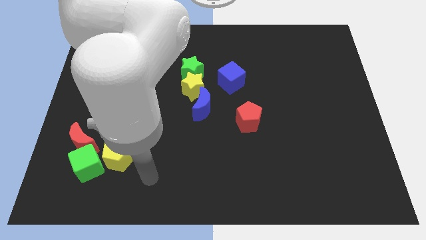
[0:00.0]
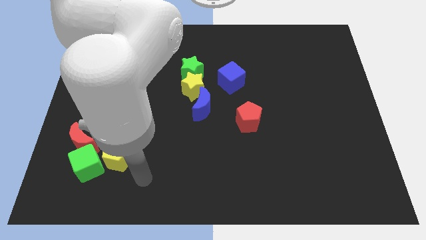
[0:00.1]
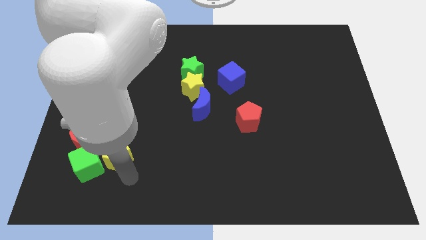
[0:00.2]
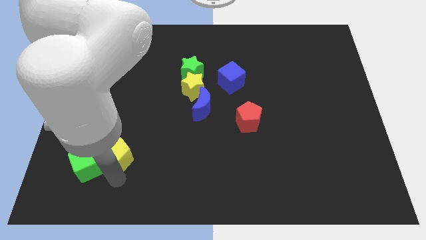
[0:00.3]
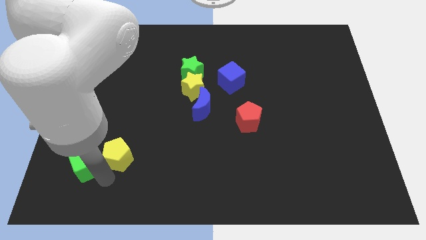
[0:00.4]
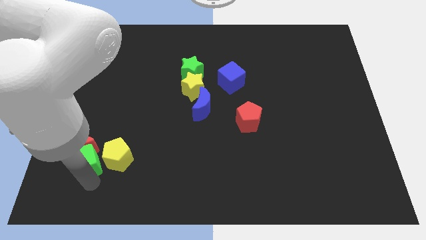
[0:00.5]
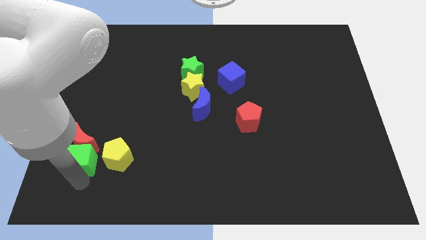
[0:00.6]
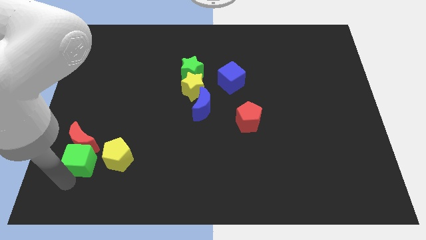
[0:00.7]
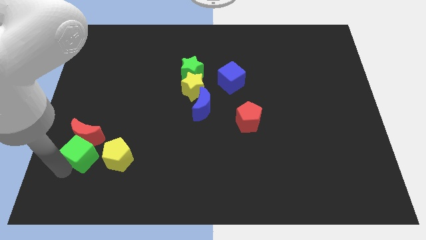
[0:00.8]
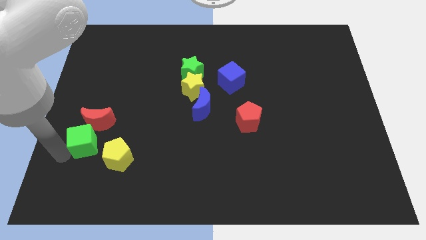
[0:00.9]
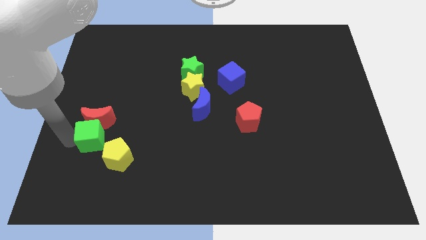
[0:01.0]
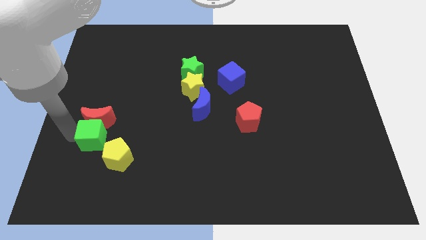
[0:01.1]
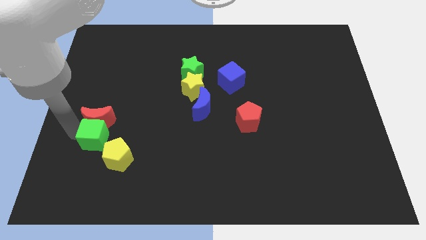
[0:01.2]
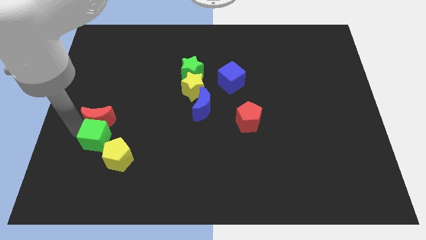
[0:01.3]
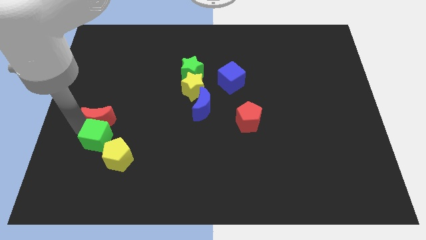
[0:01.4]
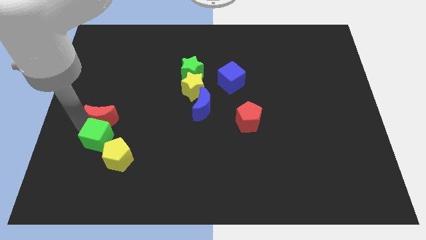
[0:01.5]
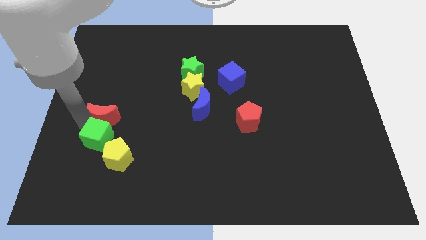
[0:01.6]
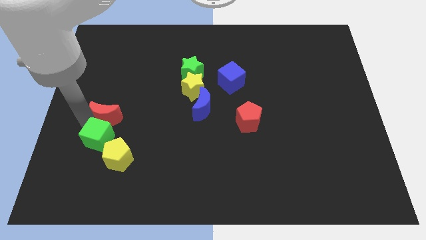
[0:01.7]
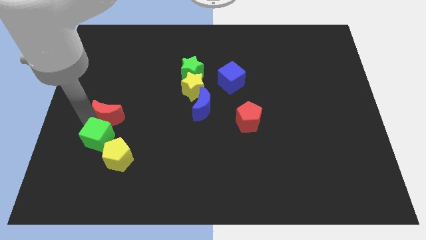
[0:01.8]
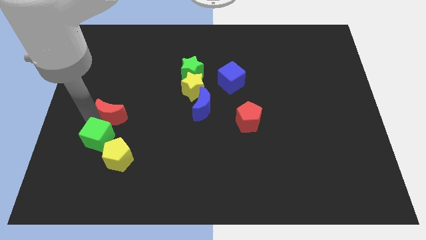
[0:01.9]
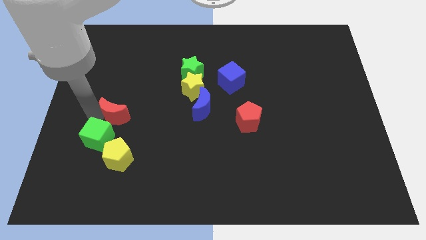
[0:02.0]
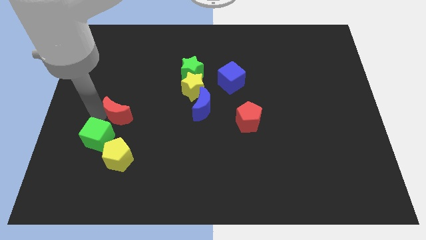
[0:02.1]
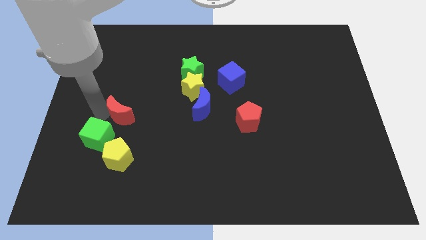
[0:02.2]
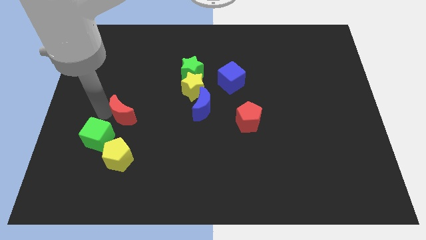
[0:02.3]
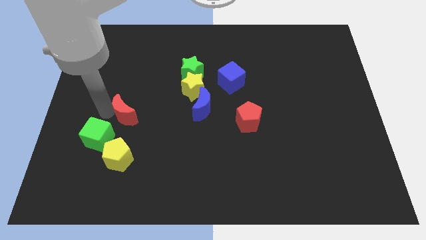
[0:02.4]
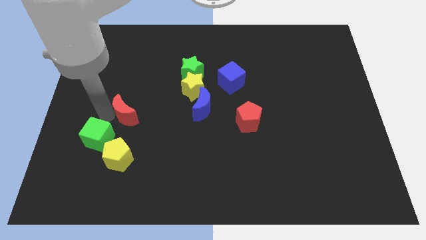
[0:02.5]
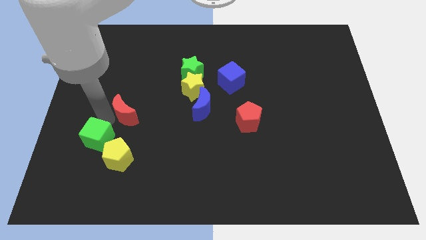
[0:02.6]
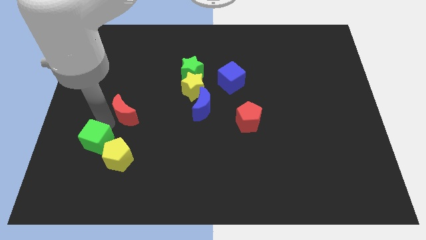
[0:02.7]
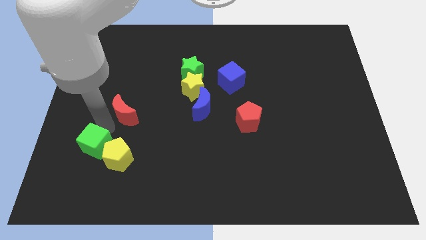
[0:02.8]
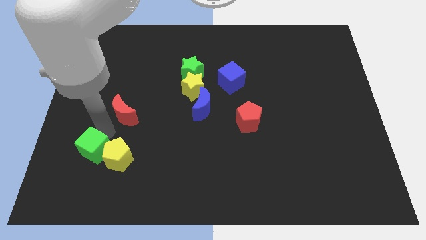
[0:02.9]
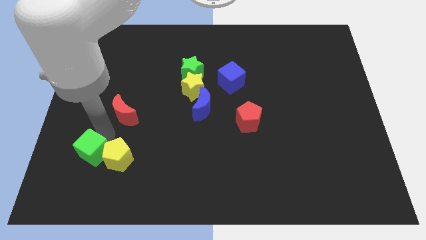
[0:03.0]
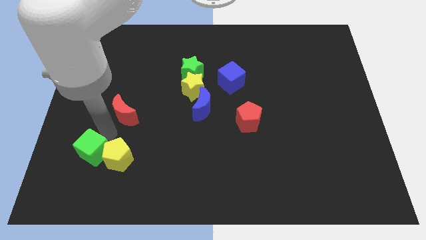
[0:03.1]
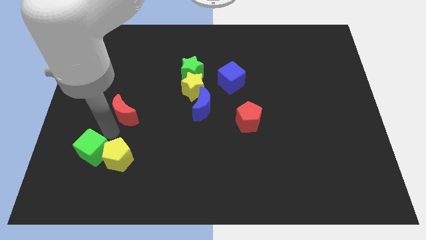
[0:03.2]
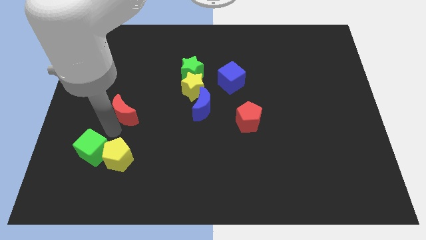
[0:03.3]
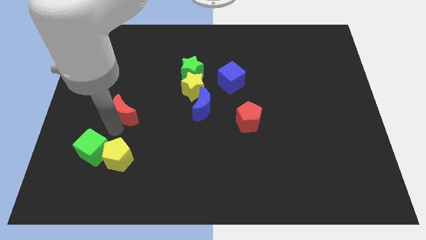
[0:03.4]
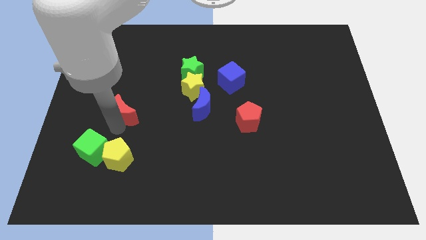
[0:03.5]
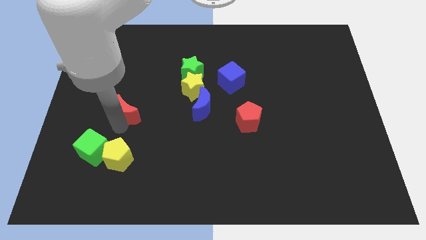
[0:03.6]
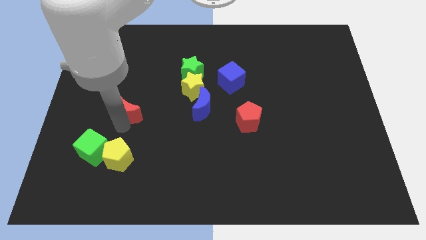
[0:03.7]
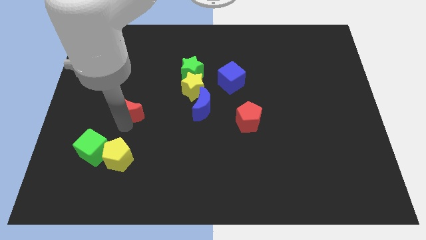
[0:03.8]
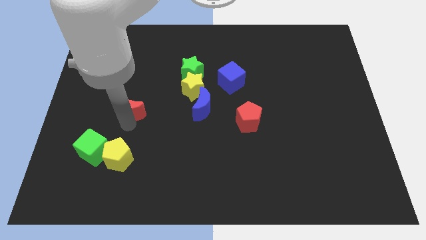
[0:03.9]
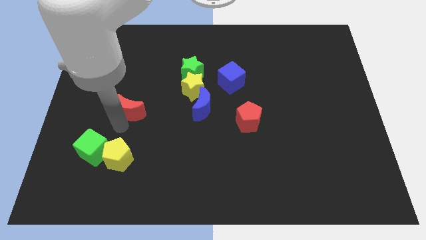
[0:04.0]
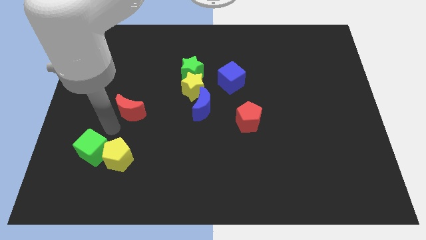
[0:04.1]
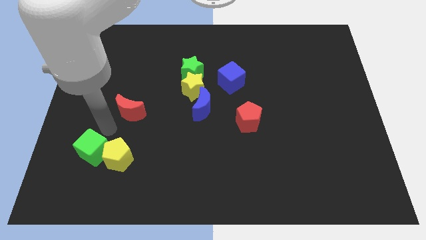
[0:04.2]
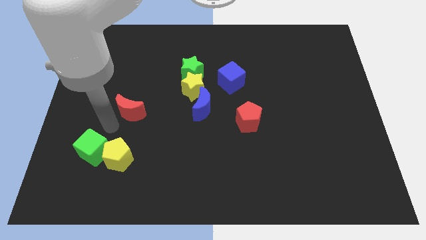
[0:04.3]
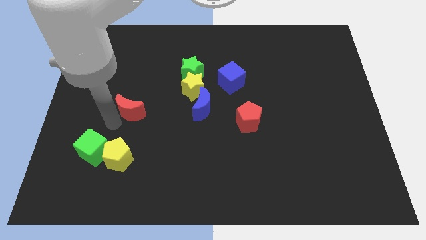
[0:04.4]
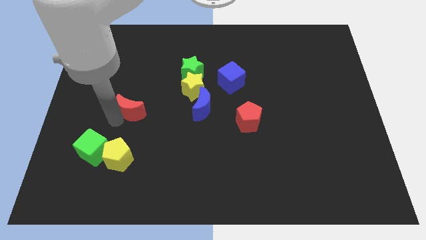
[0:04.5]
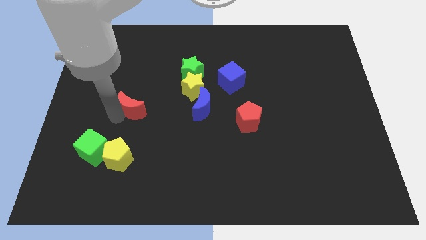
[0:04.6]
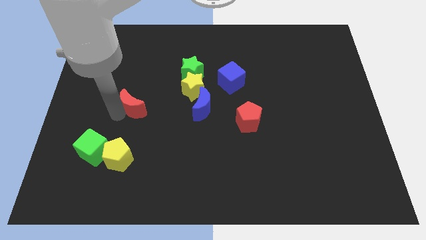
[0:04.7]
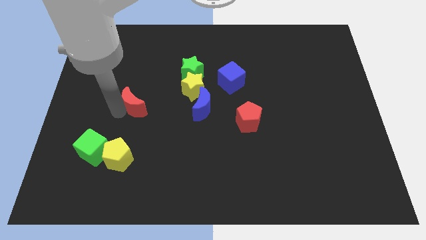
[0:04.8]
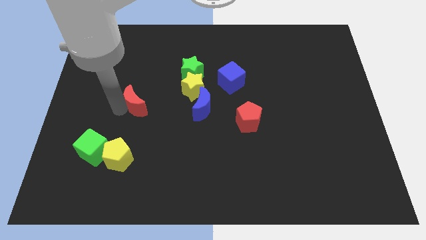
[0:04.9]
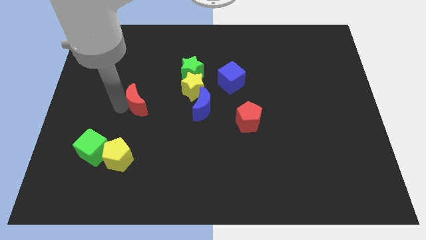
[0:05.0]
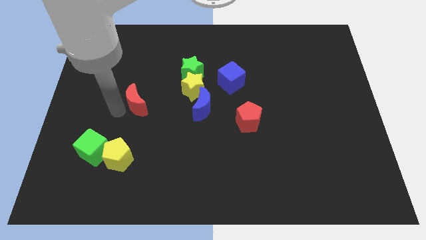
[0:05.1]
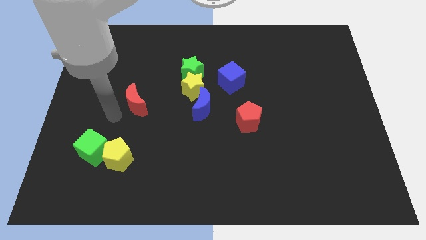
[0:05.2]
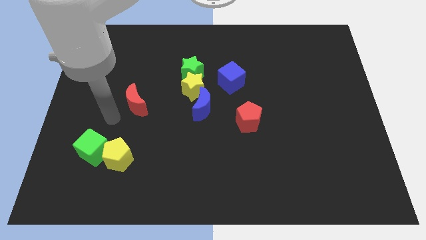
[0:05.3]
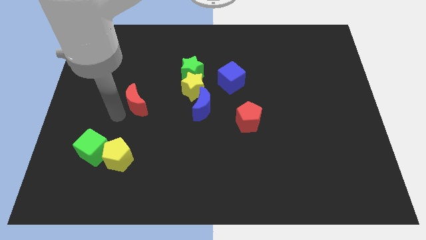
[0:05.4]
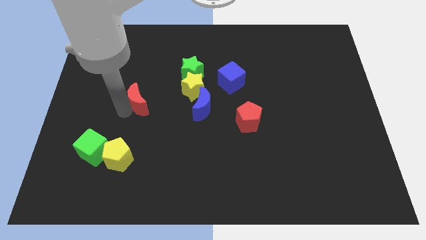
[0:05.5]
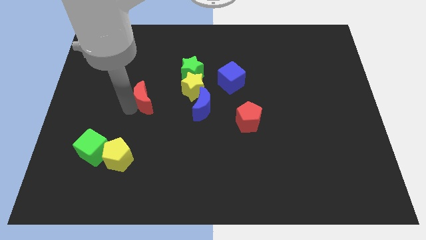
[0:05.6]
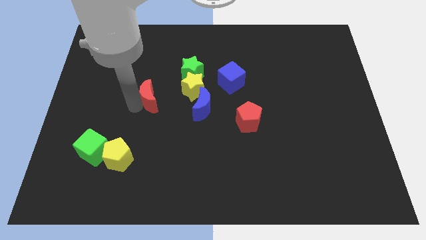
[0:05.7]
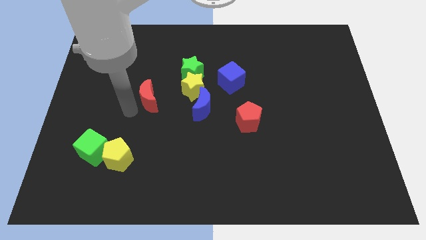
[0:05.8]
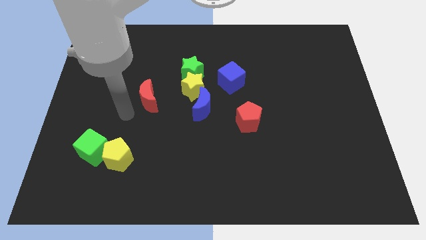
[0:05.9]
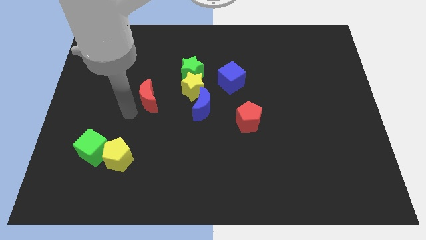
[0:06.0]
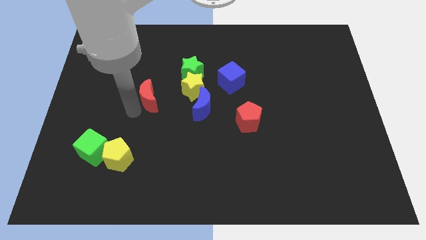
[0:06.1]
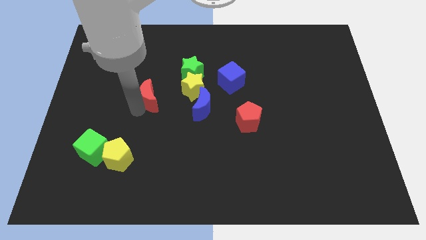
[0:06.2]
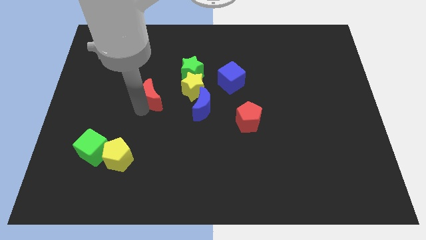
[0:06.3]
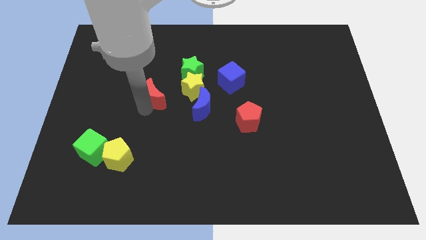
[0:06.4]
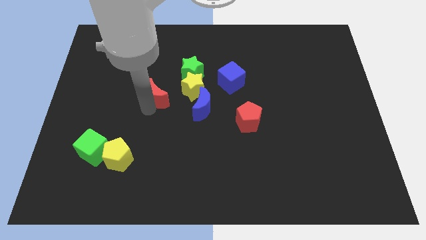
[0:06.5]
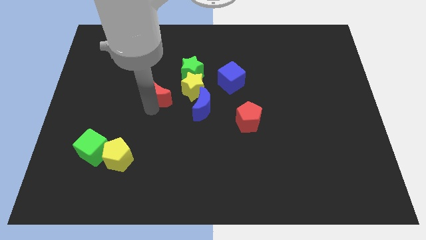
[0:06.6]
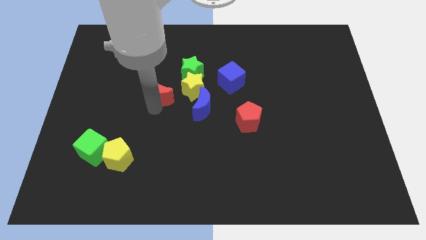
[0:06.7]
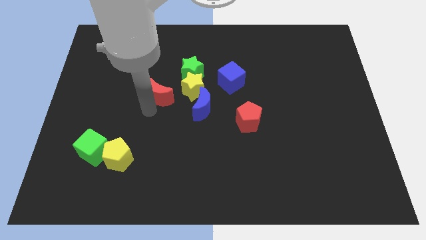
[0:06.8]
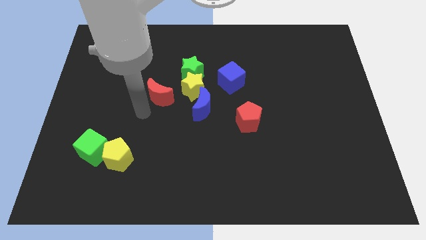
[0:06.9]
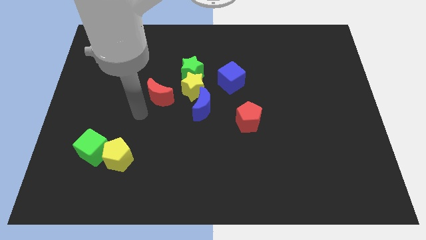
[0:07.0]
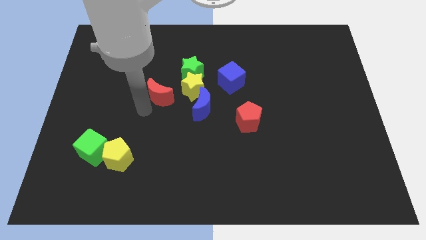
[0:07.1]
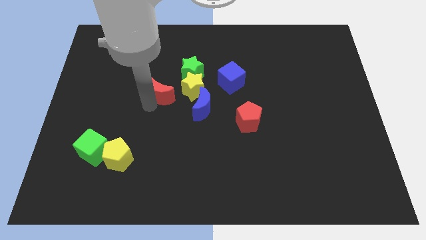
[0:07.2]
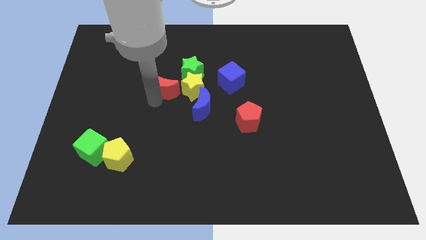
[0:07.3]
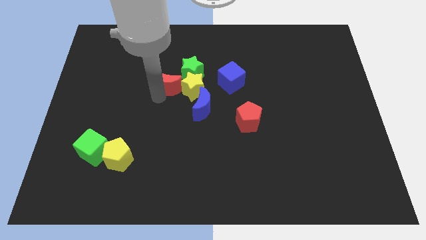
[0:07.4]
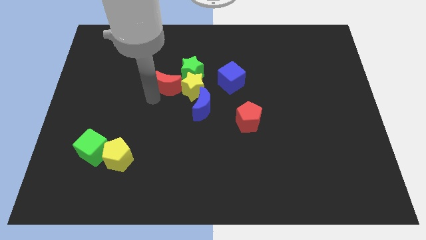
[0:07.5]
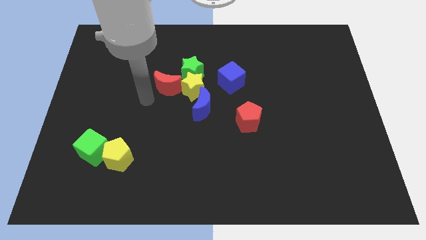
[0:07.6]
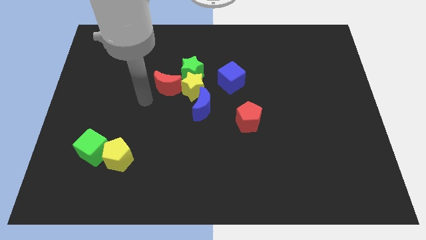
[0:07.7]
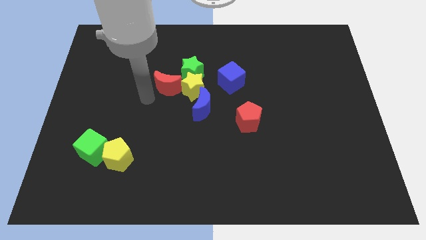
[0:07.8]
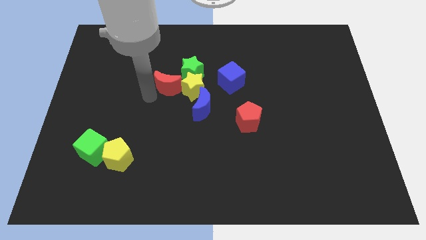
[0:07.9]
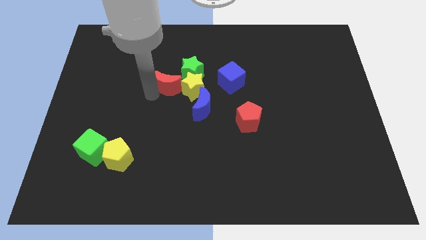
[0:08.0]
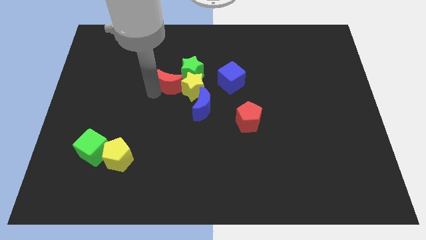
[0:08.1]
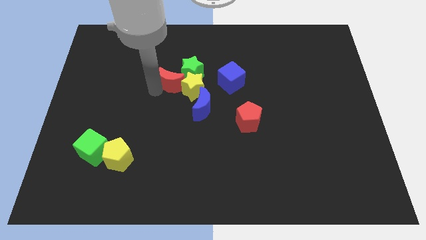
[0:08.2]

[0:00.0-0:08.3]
push the red moon towards the green star
